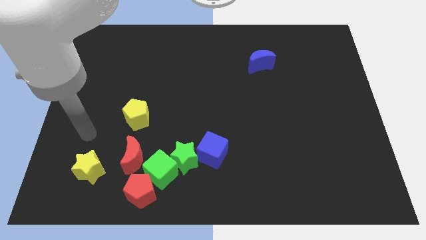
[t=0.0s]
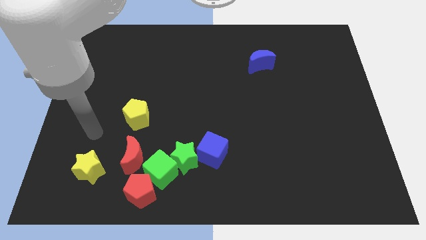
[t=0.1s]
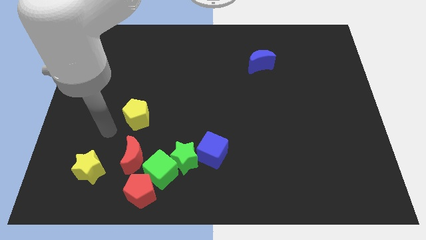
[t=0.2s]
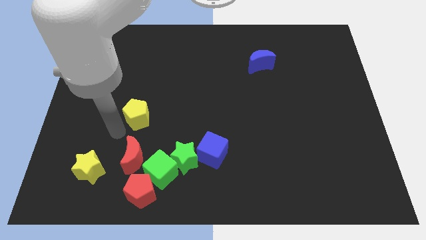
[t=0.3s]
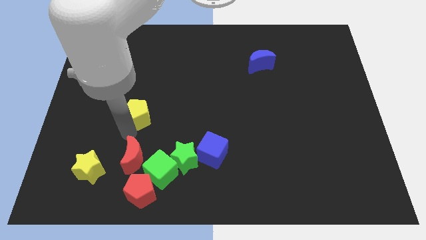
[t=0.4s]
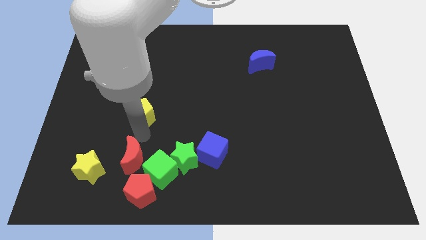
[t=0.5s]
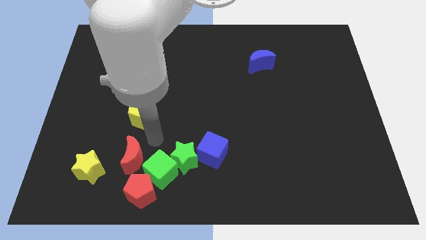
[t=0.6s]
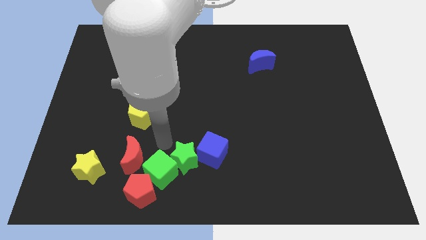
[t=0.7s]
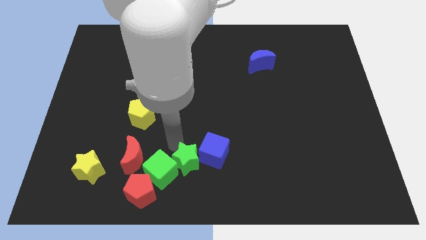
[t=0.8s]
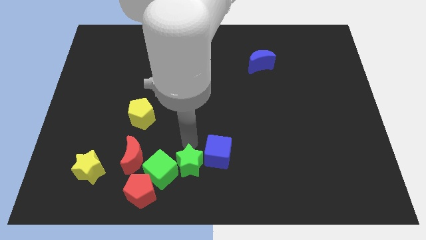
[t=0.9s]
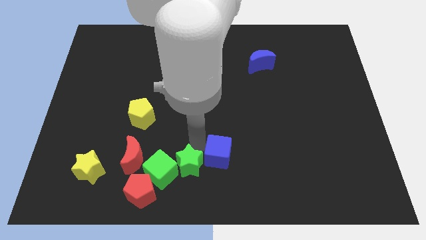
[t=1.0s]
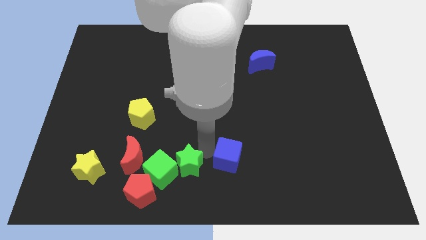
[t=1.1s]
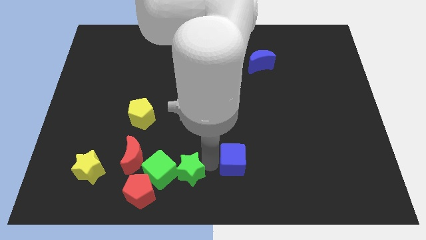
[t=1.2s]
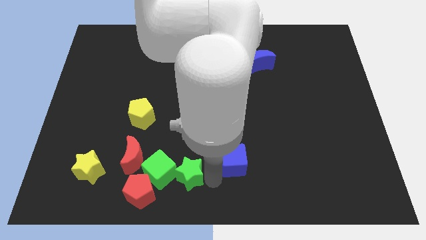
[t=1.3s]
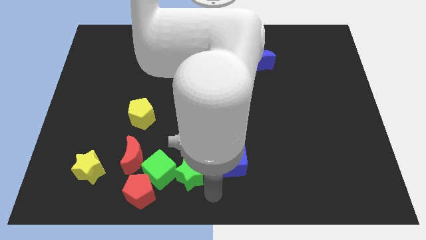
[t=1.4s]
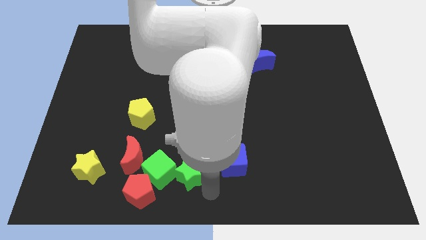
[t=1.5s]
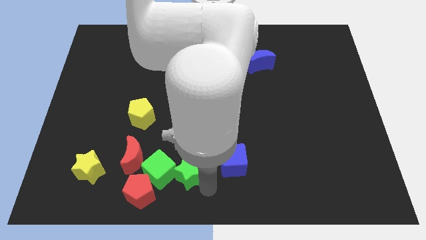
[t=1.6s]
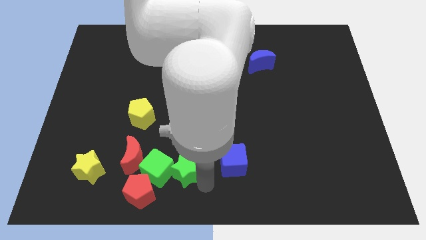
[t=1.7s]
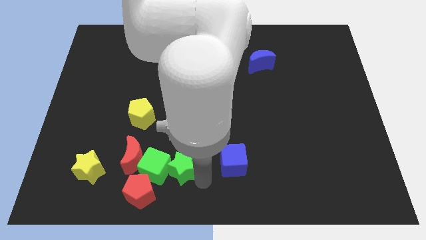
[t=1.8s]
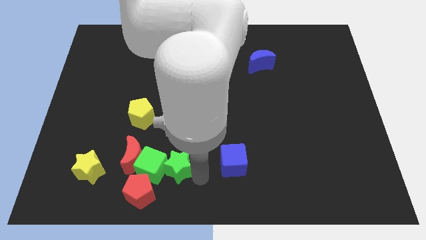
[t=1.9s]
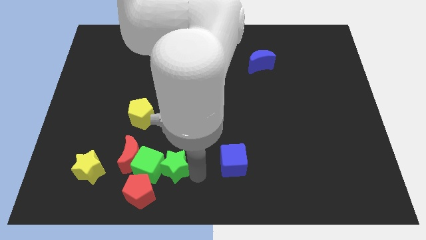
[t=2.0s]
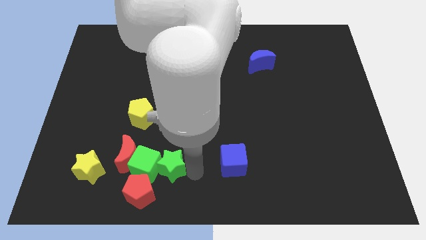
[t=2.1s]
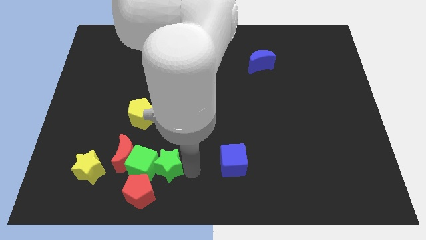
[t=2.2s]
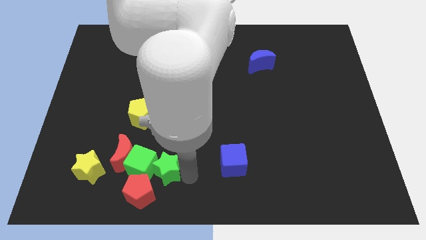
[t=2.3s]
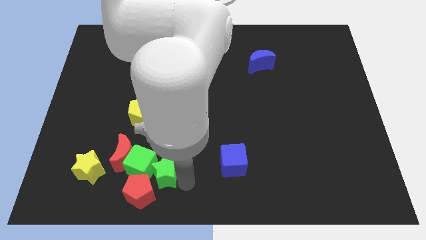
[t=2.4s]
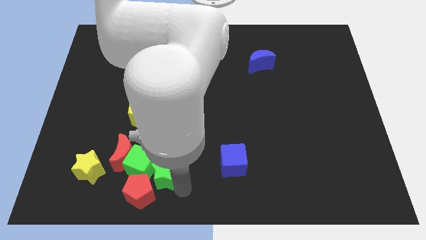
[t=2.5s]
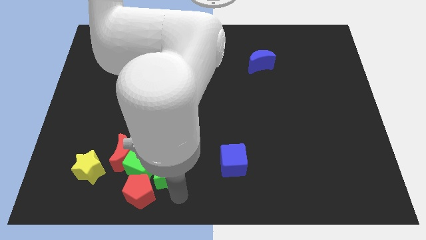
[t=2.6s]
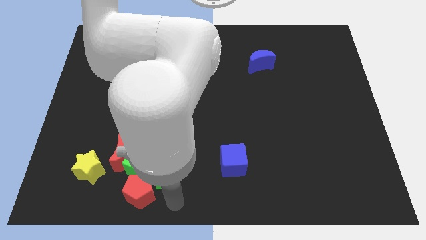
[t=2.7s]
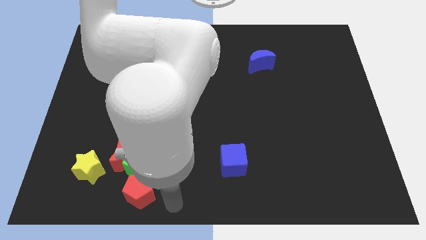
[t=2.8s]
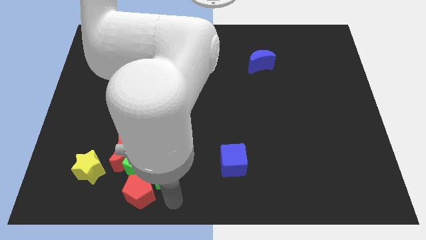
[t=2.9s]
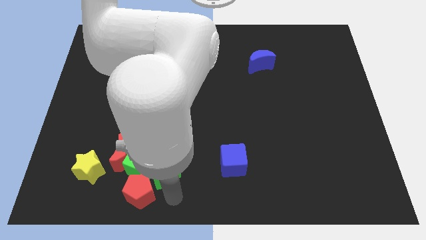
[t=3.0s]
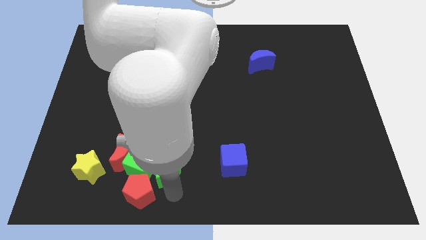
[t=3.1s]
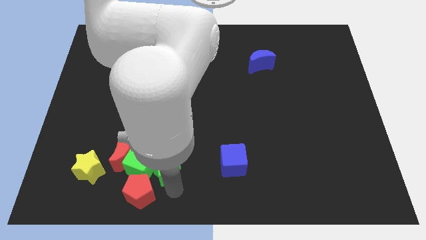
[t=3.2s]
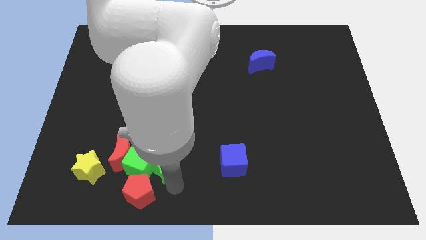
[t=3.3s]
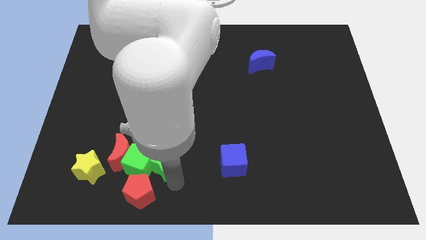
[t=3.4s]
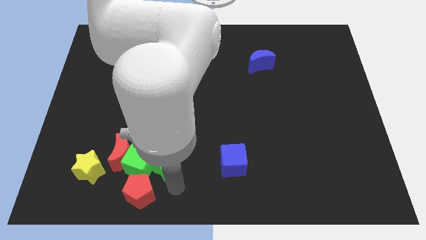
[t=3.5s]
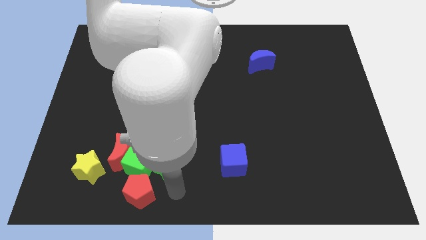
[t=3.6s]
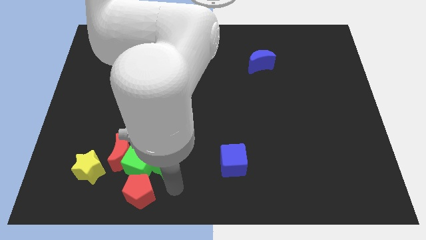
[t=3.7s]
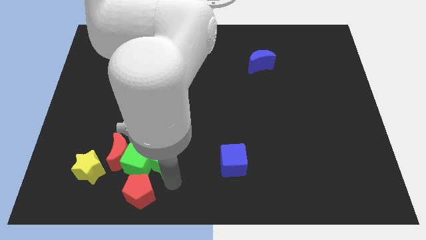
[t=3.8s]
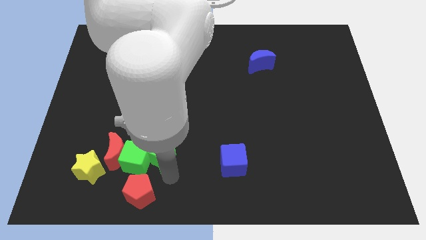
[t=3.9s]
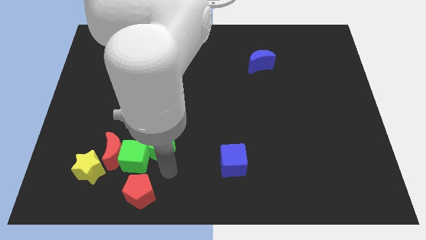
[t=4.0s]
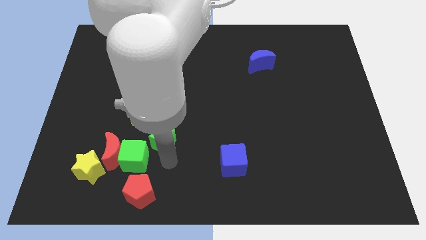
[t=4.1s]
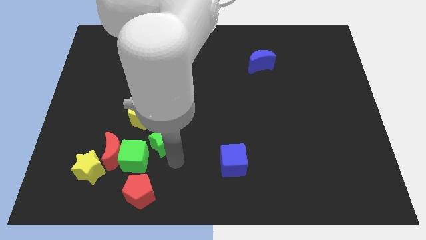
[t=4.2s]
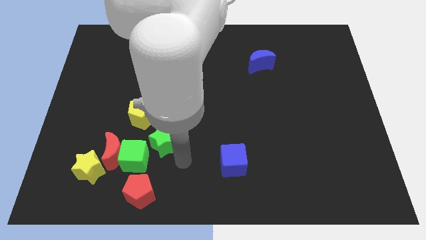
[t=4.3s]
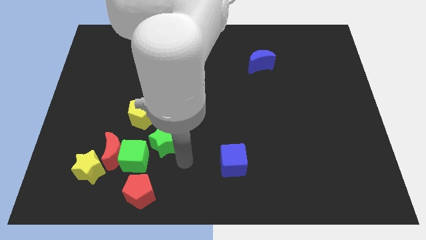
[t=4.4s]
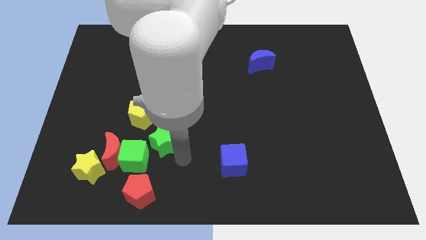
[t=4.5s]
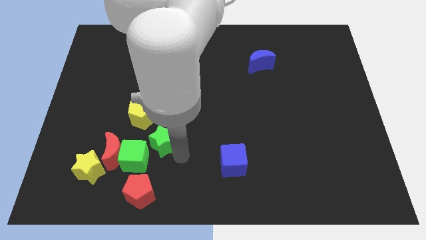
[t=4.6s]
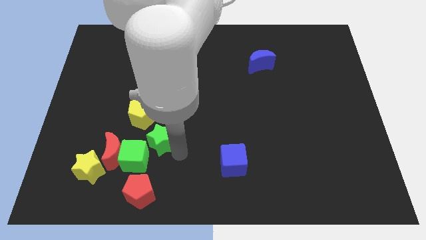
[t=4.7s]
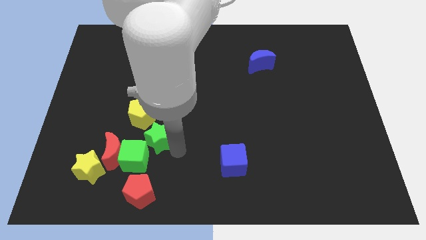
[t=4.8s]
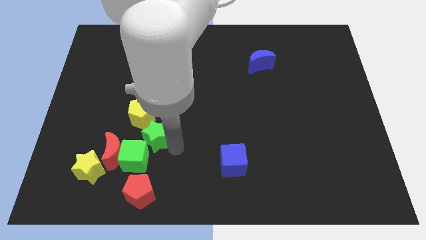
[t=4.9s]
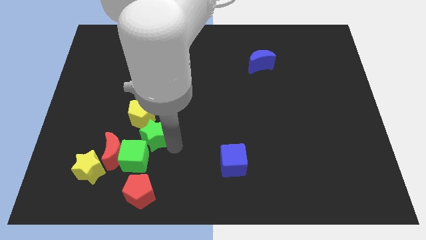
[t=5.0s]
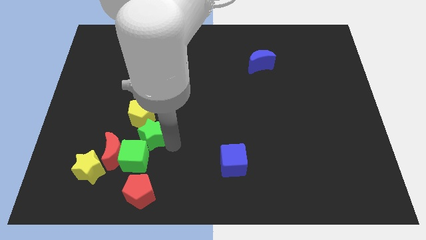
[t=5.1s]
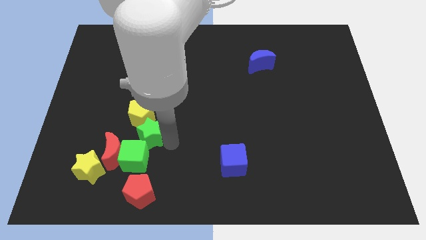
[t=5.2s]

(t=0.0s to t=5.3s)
separate the green star from the green cube and blue cube

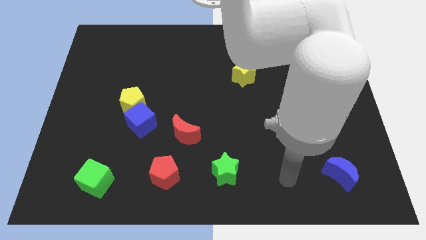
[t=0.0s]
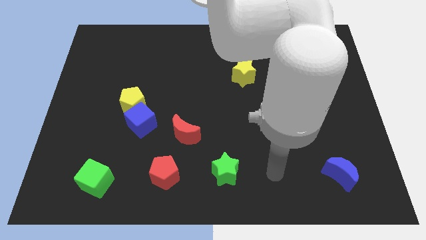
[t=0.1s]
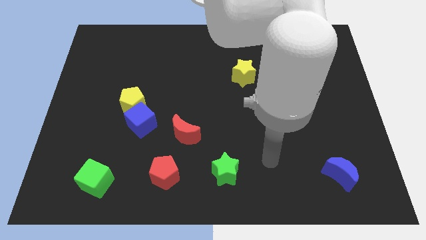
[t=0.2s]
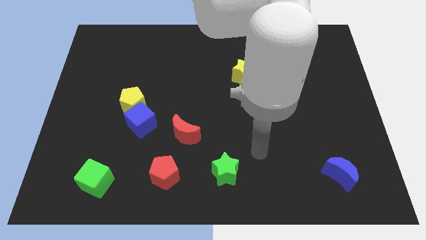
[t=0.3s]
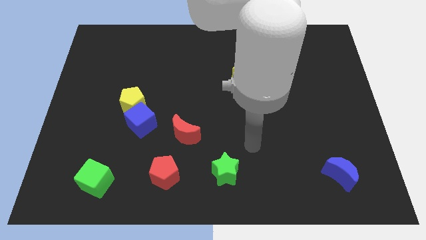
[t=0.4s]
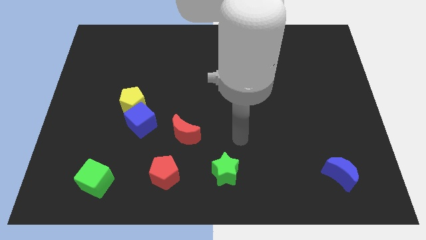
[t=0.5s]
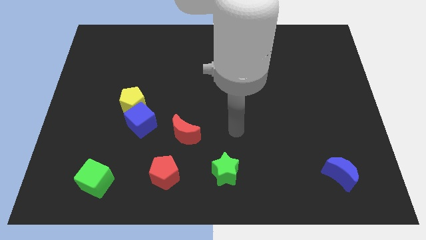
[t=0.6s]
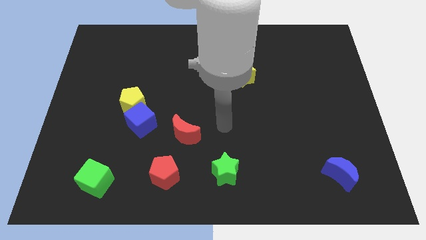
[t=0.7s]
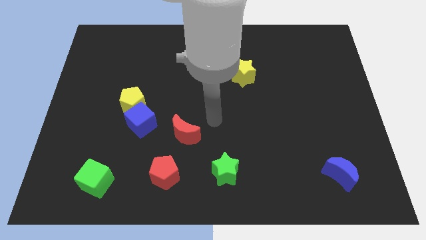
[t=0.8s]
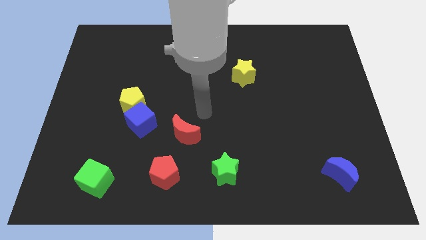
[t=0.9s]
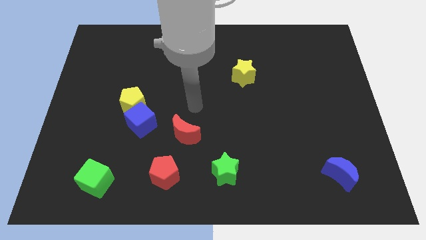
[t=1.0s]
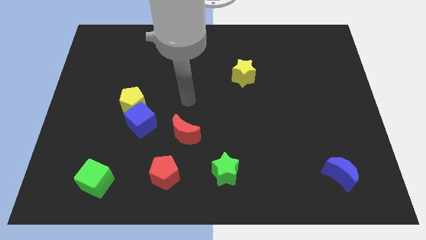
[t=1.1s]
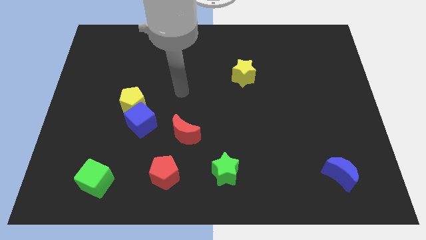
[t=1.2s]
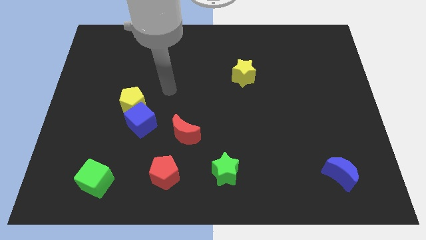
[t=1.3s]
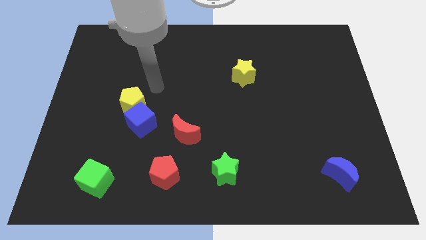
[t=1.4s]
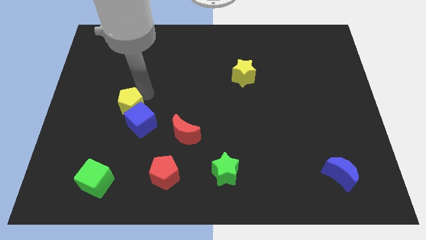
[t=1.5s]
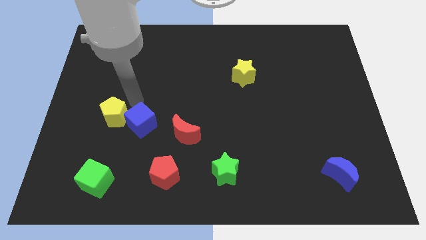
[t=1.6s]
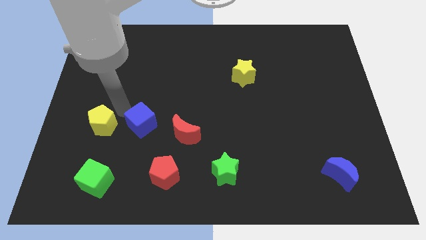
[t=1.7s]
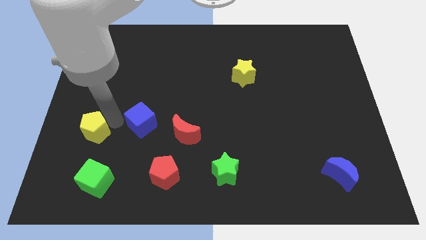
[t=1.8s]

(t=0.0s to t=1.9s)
pull the blue cube apart from the yellow pentagon

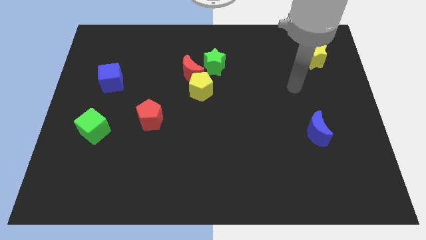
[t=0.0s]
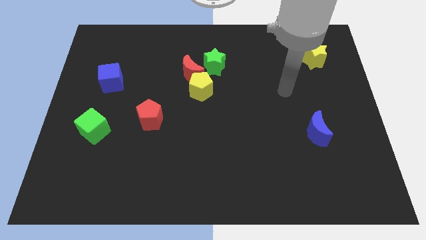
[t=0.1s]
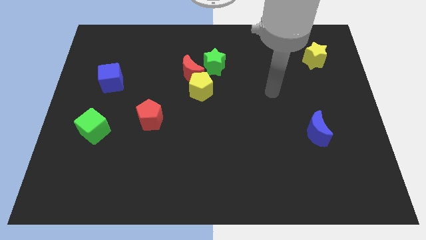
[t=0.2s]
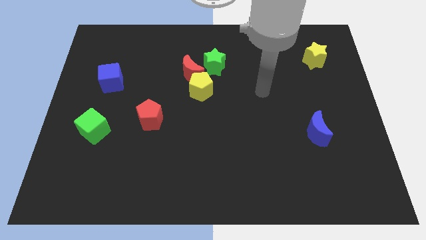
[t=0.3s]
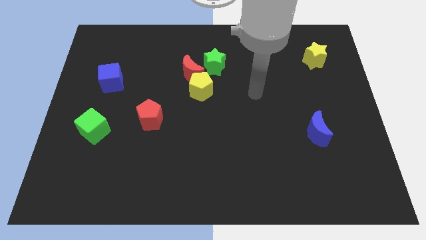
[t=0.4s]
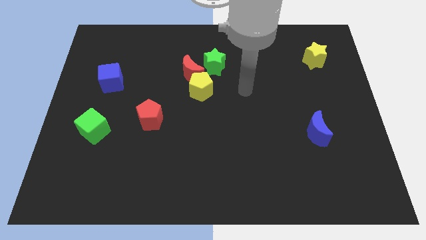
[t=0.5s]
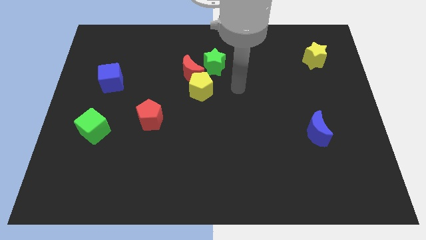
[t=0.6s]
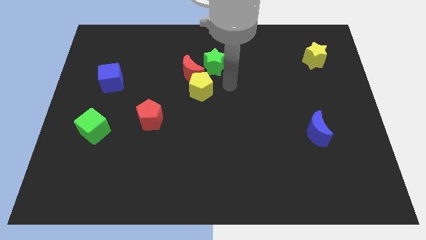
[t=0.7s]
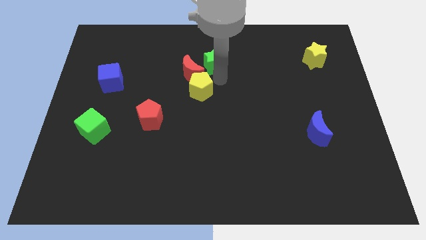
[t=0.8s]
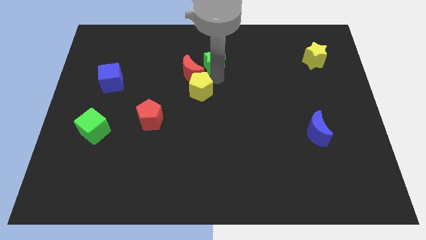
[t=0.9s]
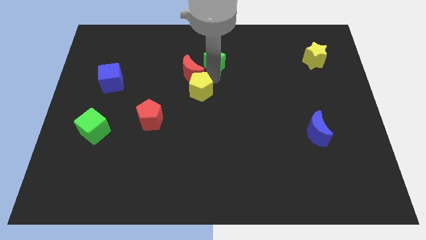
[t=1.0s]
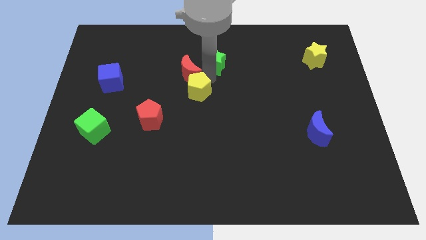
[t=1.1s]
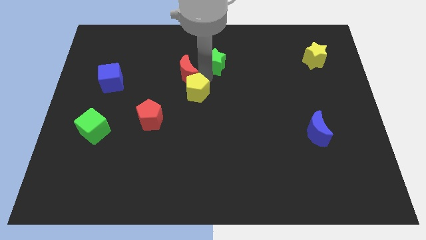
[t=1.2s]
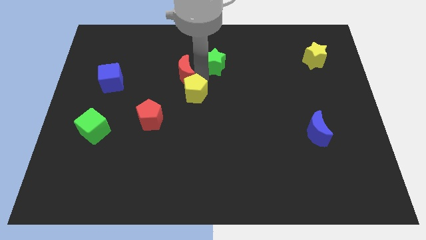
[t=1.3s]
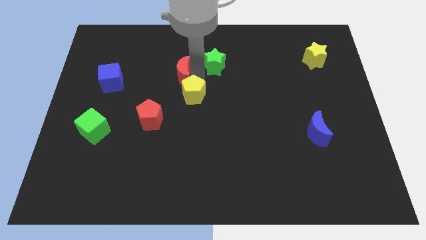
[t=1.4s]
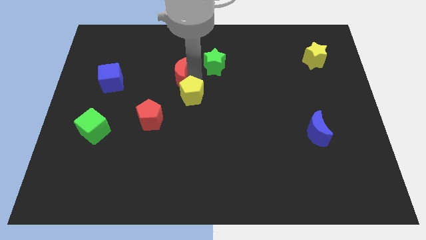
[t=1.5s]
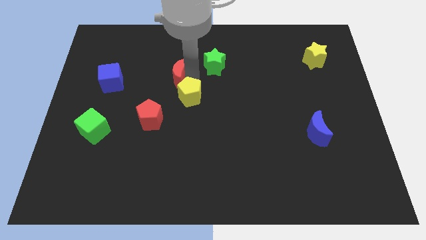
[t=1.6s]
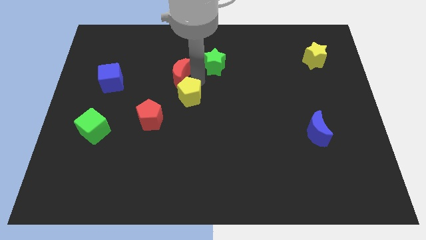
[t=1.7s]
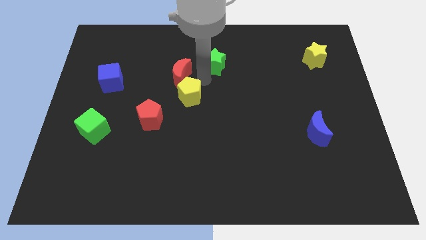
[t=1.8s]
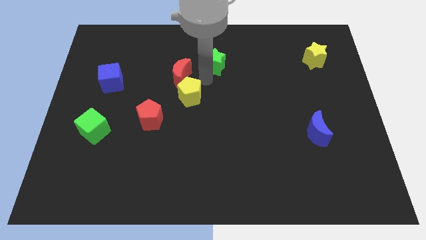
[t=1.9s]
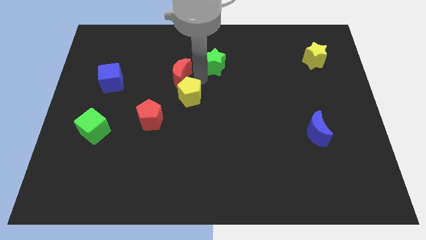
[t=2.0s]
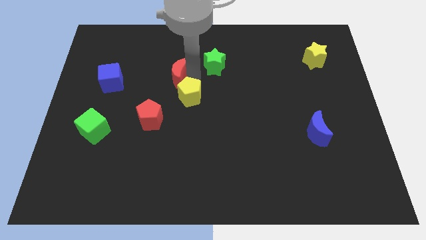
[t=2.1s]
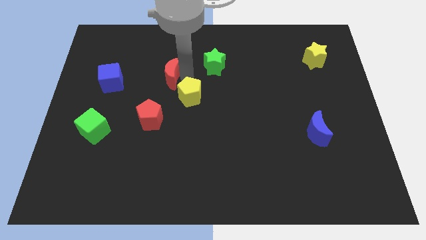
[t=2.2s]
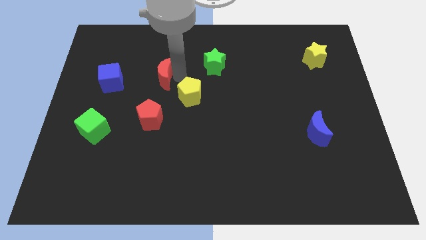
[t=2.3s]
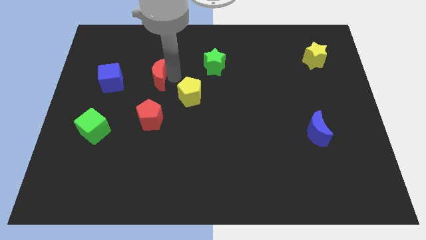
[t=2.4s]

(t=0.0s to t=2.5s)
separate the red moon from the yellow pentagon and green star
